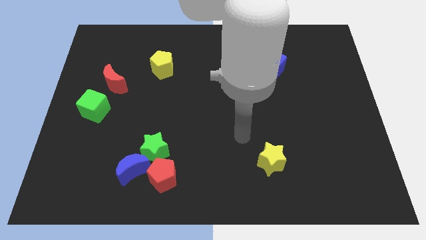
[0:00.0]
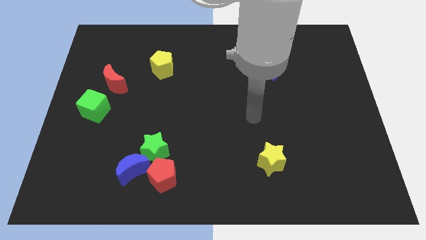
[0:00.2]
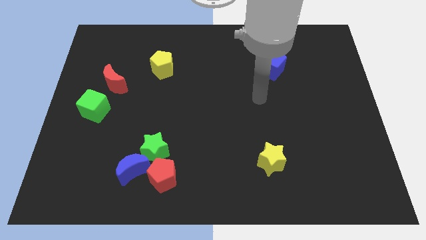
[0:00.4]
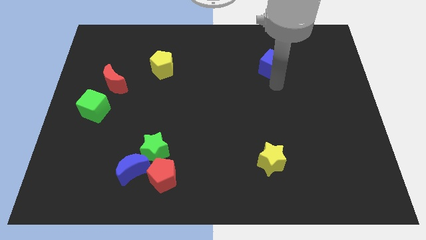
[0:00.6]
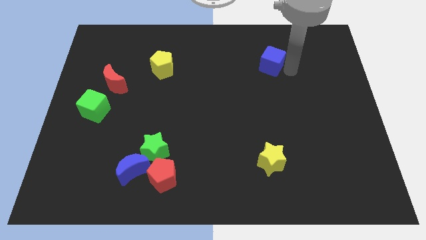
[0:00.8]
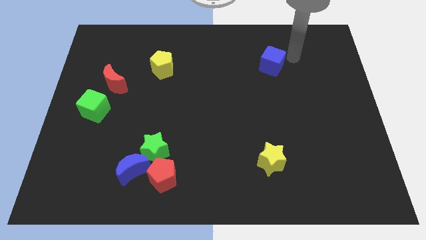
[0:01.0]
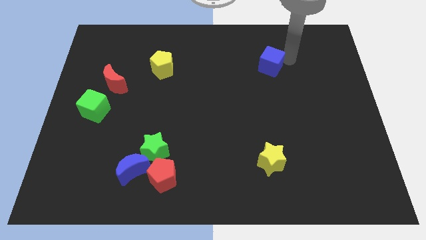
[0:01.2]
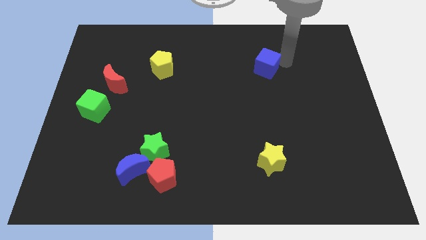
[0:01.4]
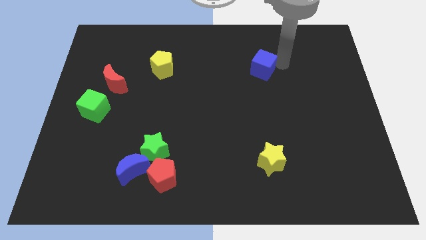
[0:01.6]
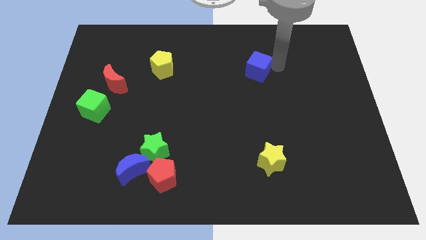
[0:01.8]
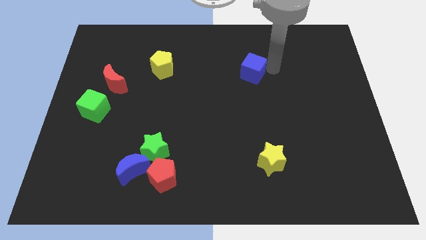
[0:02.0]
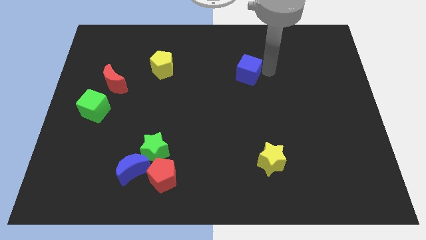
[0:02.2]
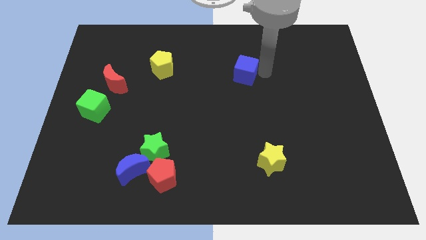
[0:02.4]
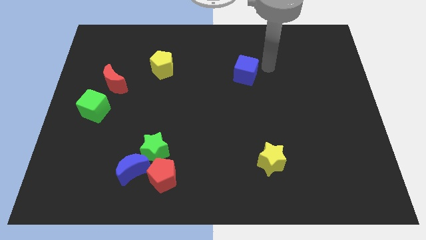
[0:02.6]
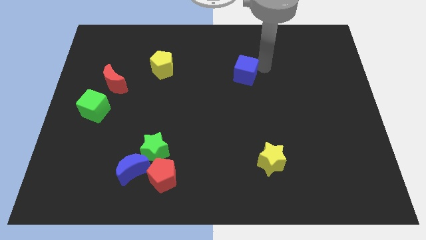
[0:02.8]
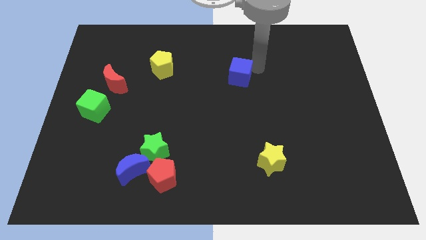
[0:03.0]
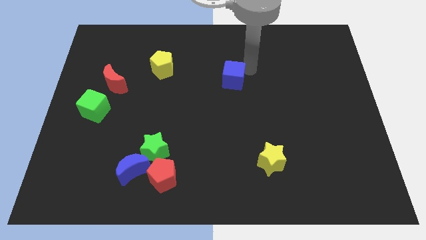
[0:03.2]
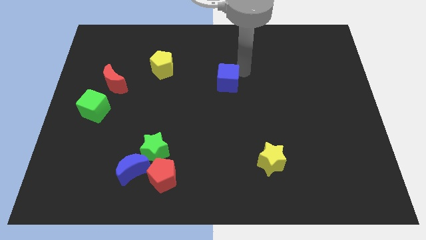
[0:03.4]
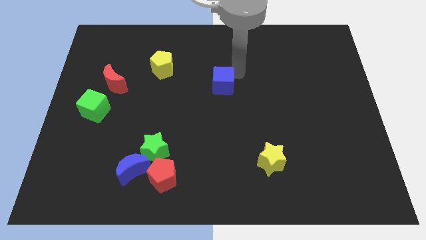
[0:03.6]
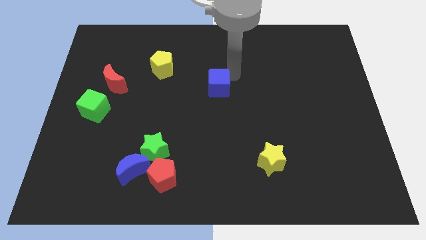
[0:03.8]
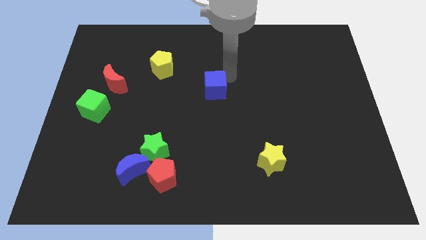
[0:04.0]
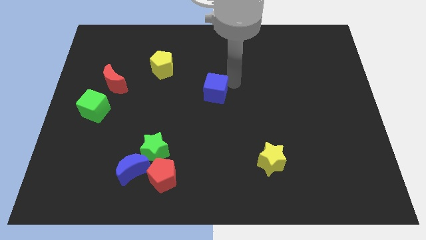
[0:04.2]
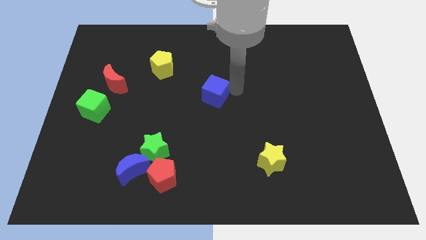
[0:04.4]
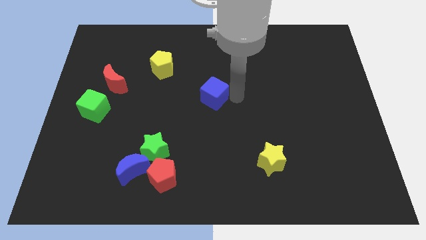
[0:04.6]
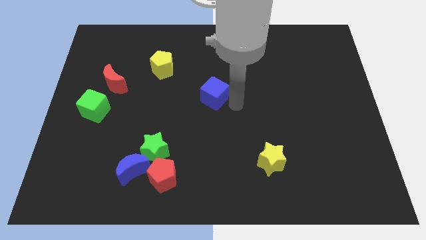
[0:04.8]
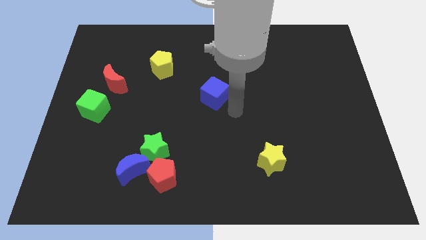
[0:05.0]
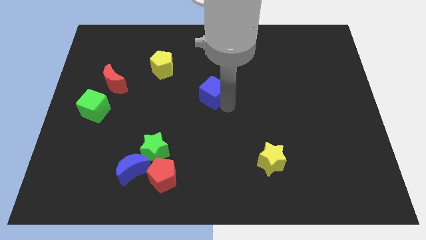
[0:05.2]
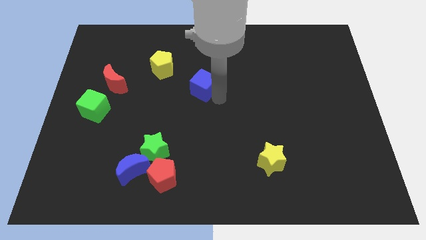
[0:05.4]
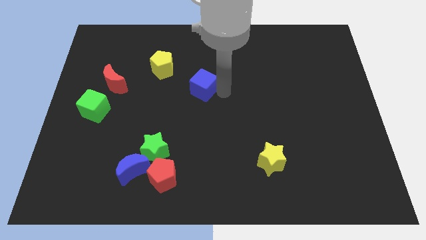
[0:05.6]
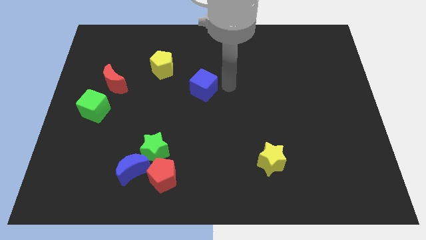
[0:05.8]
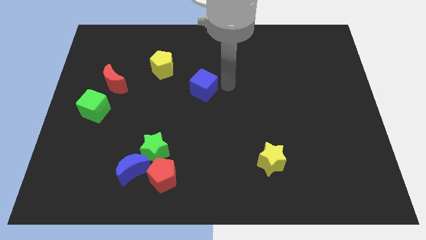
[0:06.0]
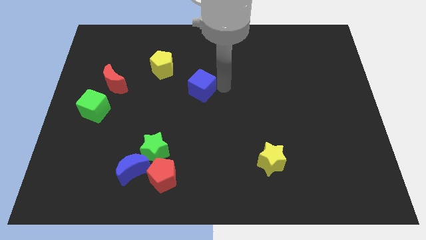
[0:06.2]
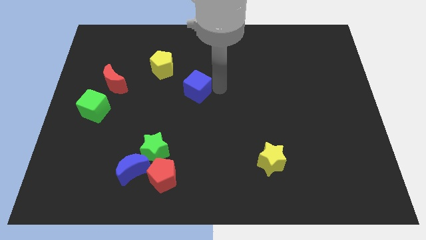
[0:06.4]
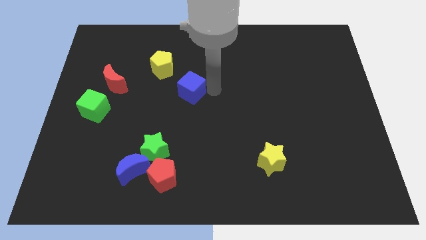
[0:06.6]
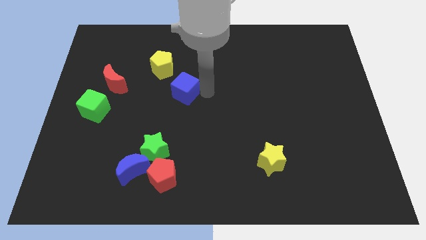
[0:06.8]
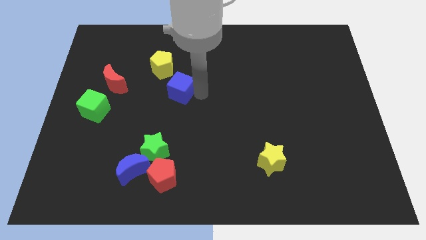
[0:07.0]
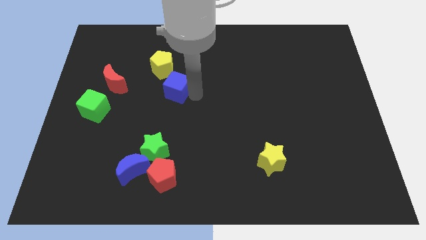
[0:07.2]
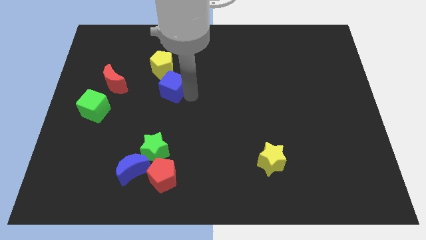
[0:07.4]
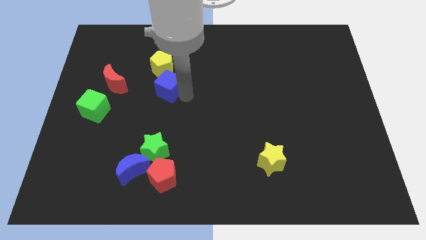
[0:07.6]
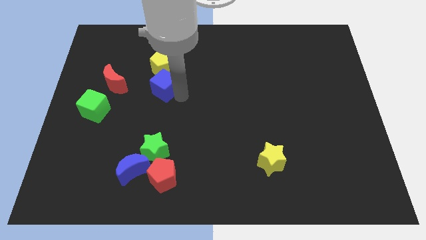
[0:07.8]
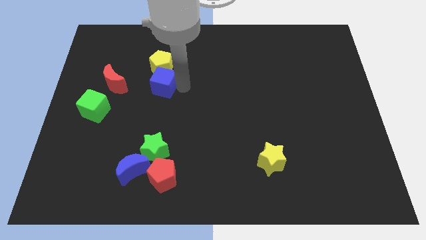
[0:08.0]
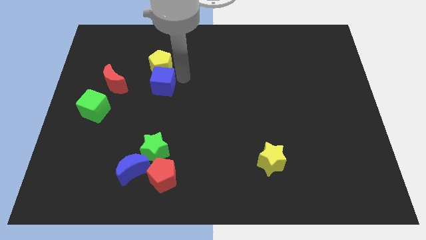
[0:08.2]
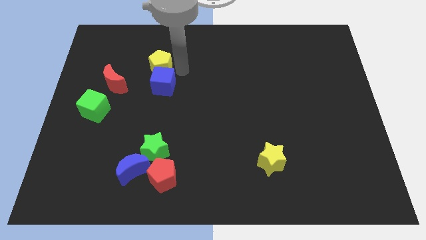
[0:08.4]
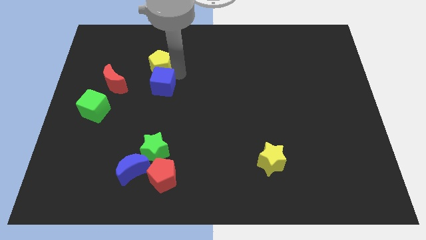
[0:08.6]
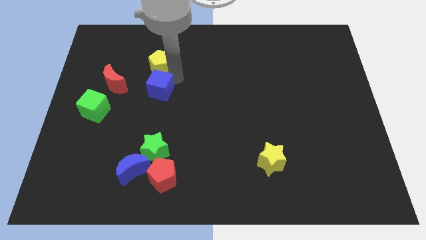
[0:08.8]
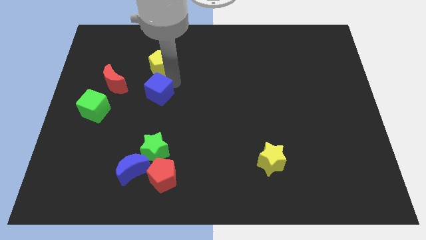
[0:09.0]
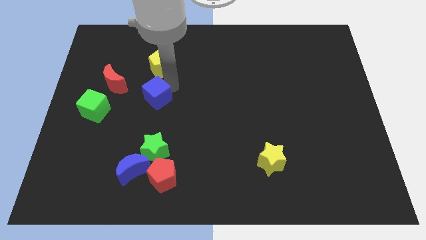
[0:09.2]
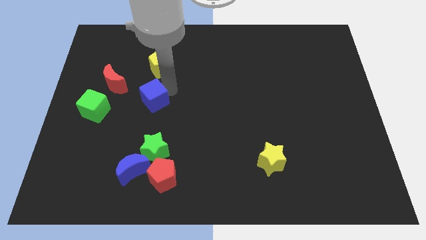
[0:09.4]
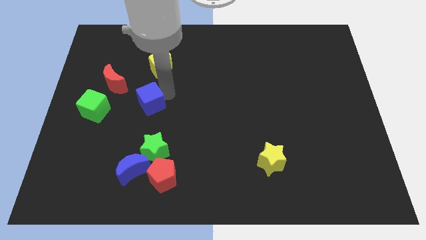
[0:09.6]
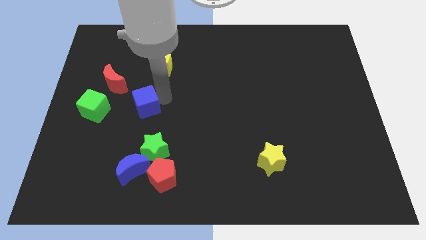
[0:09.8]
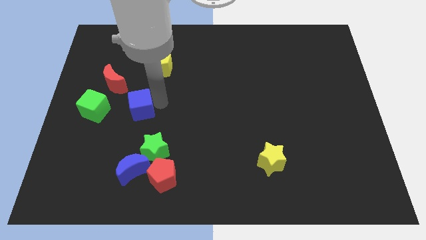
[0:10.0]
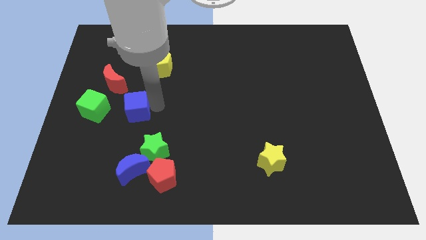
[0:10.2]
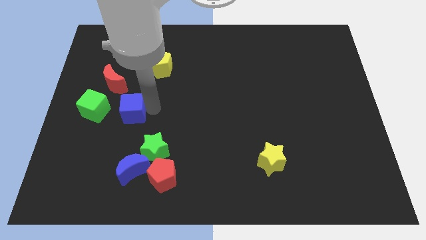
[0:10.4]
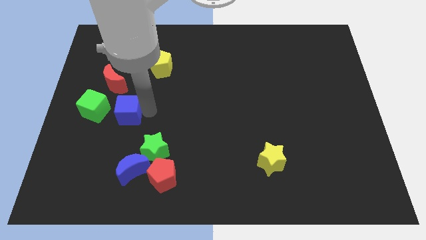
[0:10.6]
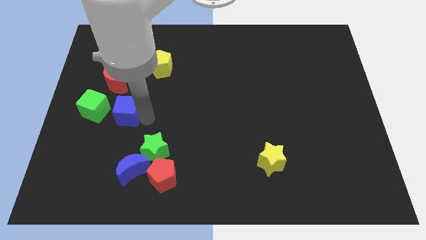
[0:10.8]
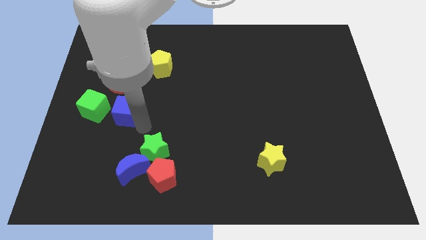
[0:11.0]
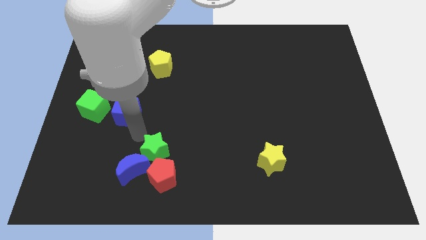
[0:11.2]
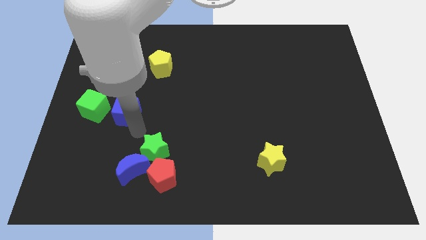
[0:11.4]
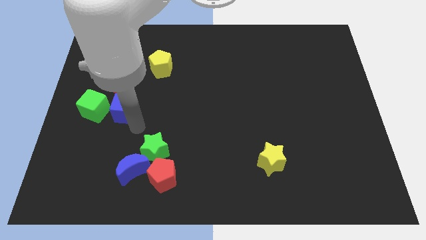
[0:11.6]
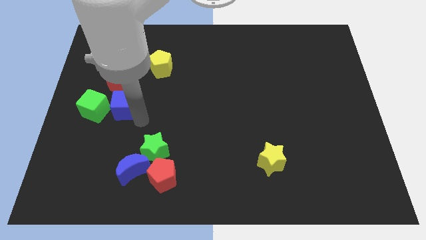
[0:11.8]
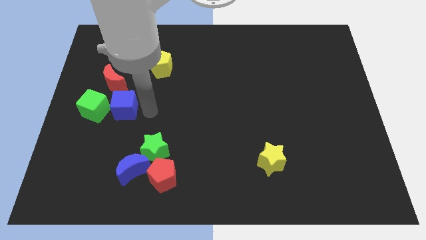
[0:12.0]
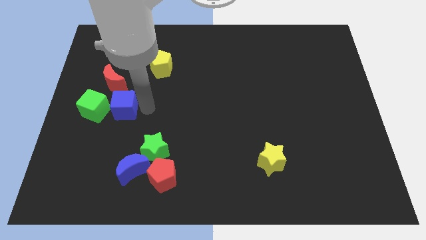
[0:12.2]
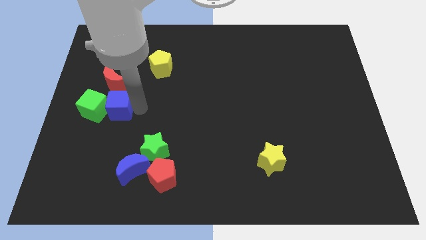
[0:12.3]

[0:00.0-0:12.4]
move the blue cube next to the green cube

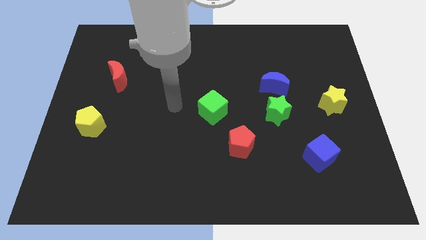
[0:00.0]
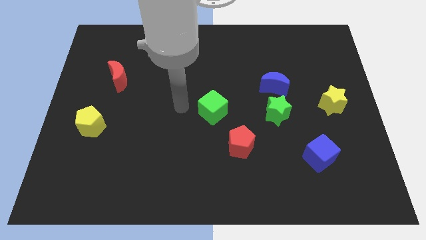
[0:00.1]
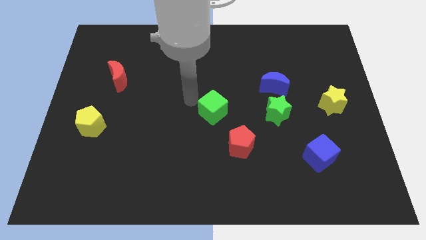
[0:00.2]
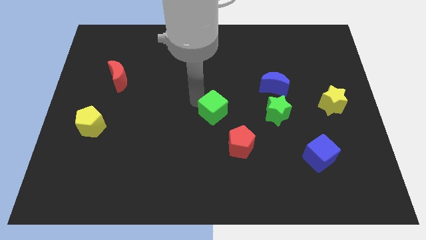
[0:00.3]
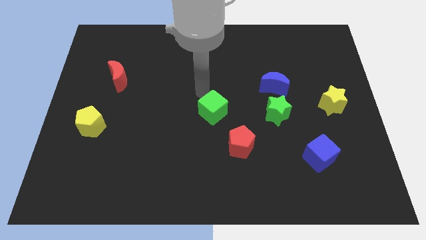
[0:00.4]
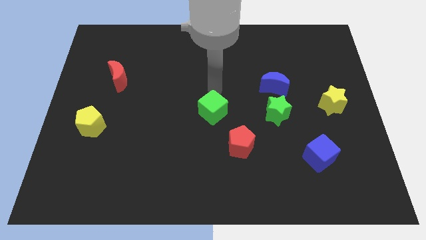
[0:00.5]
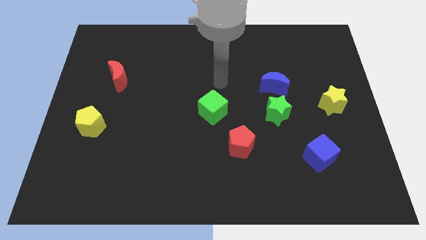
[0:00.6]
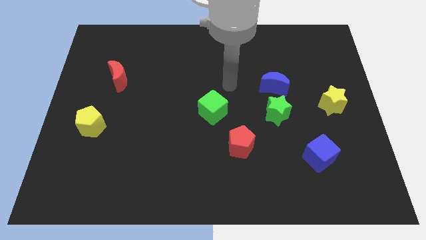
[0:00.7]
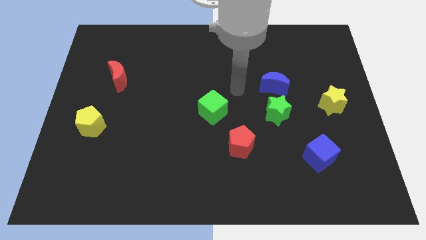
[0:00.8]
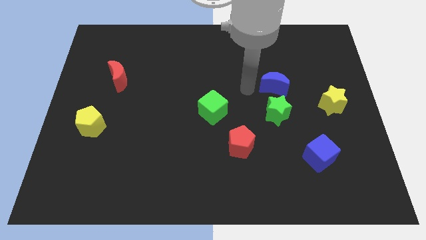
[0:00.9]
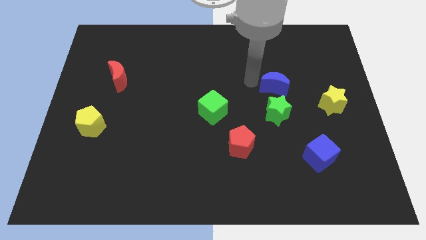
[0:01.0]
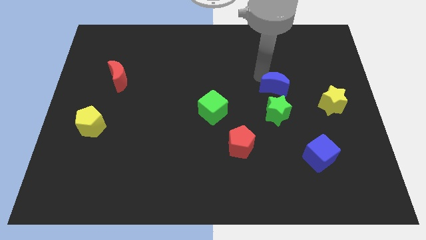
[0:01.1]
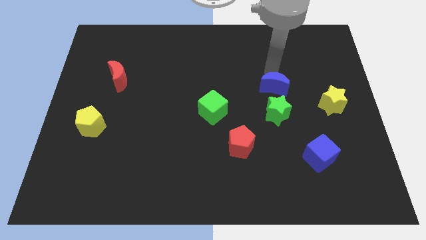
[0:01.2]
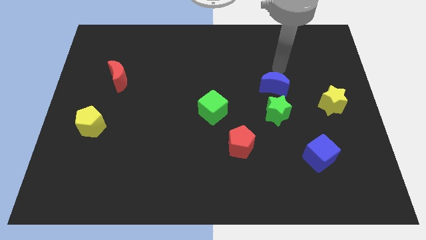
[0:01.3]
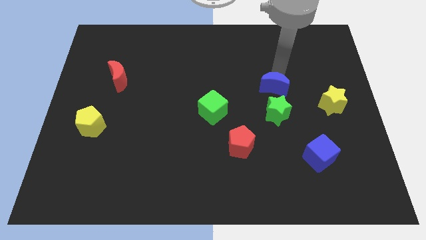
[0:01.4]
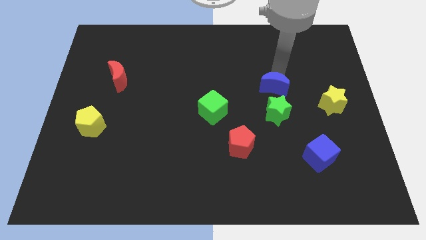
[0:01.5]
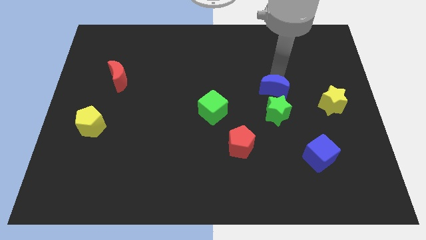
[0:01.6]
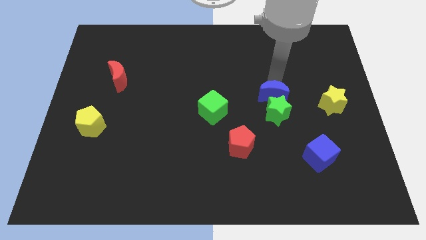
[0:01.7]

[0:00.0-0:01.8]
push the blue moon next to the green star
